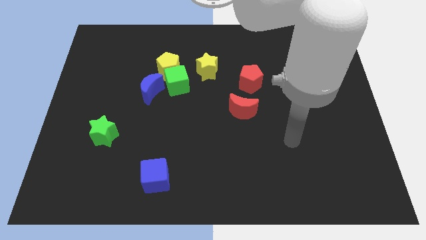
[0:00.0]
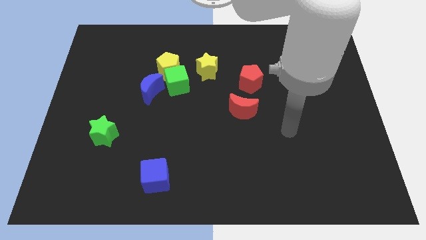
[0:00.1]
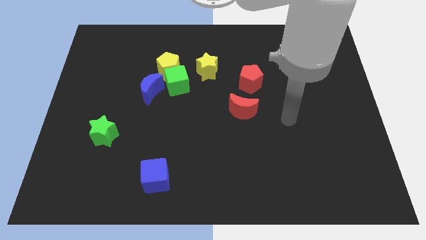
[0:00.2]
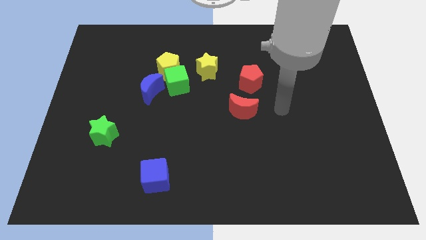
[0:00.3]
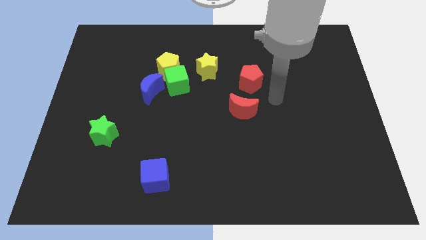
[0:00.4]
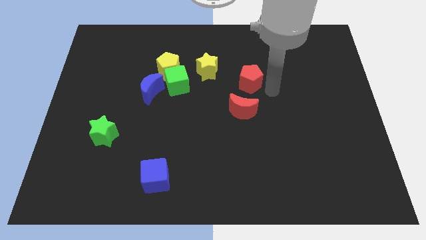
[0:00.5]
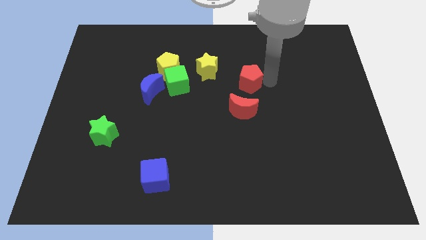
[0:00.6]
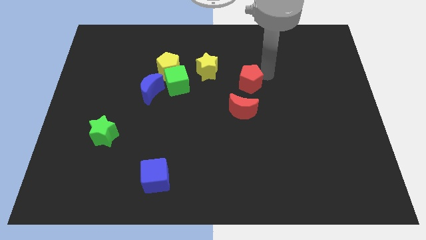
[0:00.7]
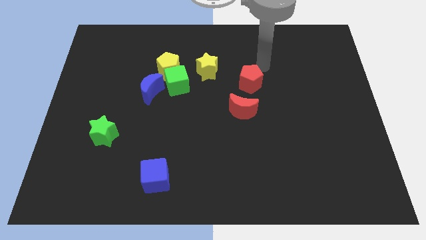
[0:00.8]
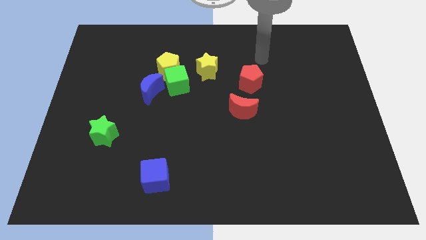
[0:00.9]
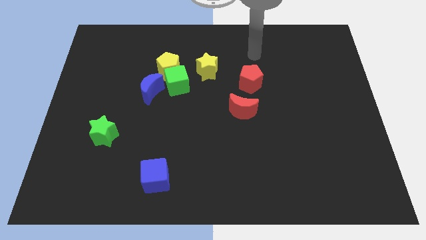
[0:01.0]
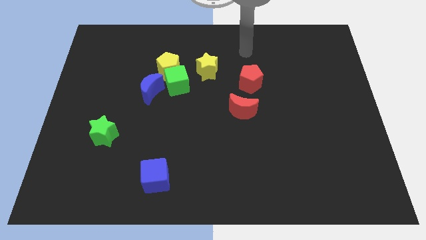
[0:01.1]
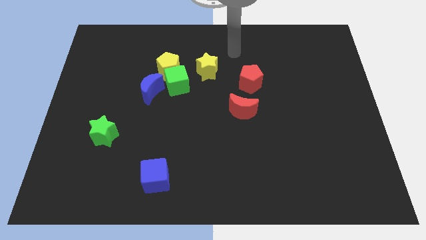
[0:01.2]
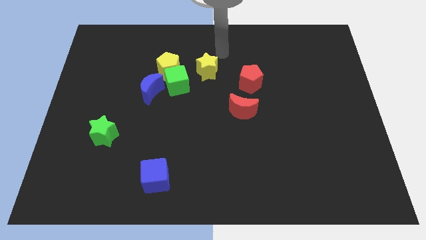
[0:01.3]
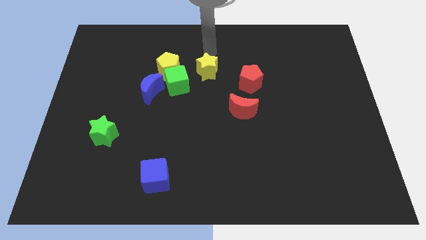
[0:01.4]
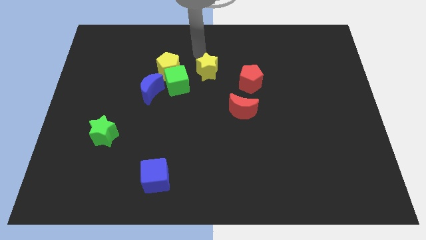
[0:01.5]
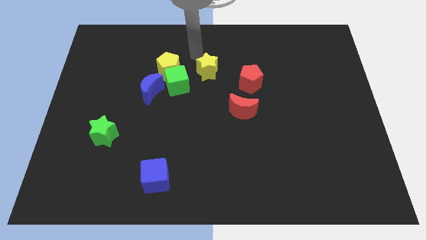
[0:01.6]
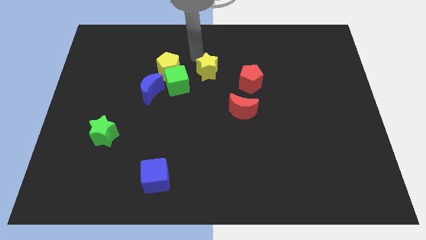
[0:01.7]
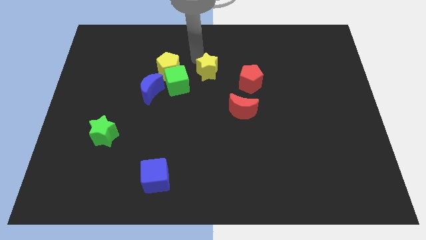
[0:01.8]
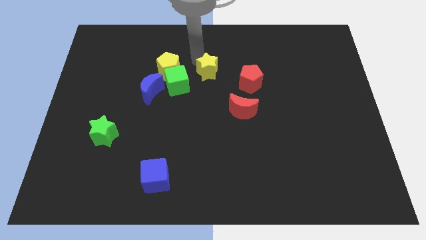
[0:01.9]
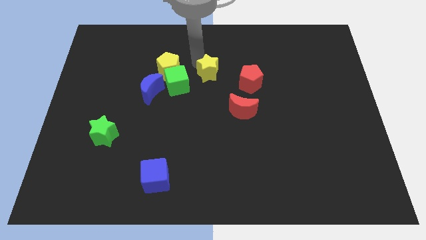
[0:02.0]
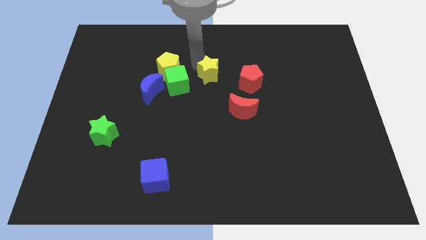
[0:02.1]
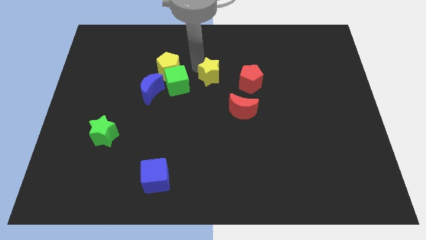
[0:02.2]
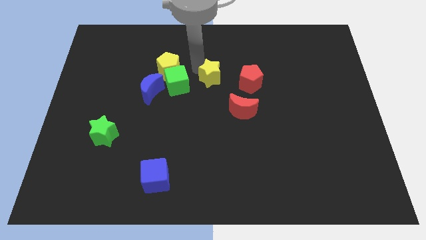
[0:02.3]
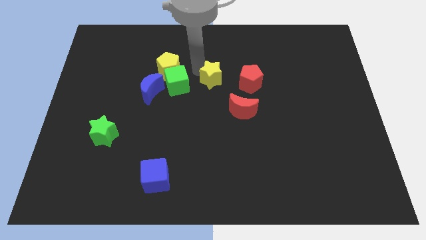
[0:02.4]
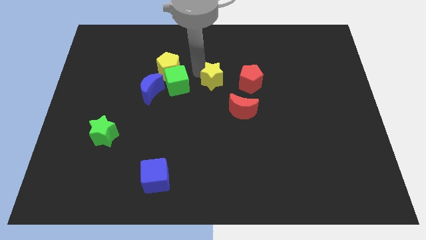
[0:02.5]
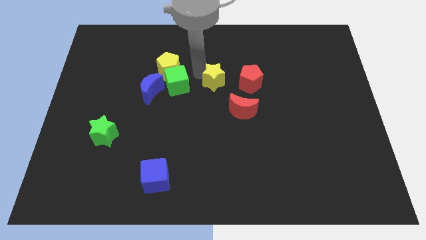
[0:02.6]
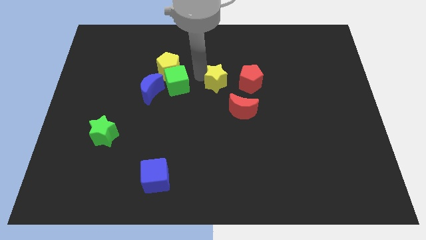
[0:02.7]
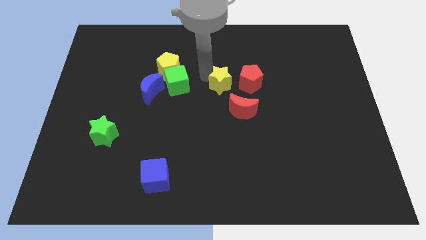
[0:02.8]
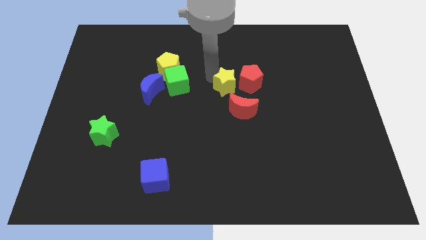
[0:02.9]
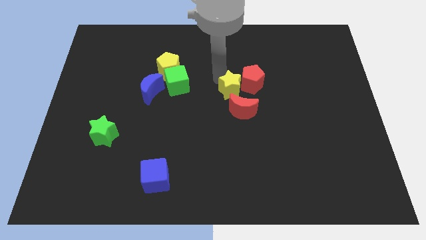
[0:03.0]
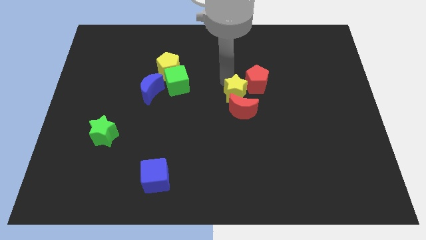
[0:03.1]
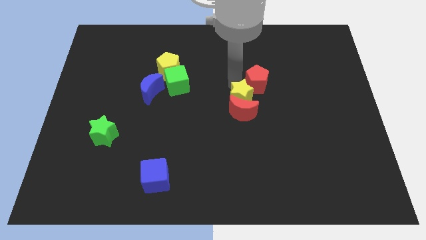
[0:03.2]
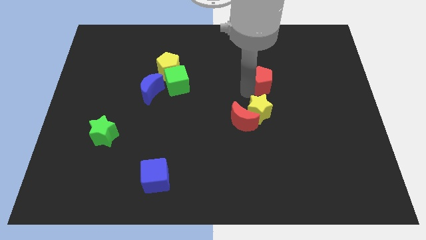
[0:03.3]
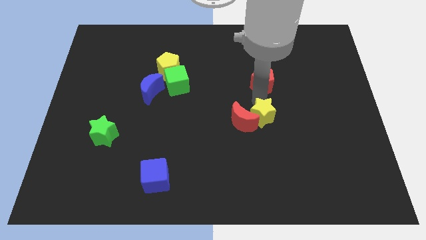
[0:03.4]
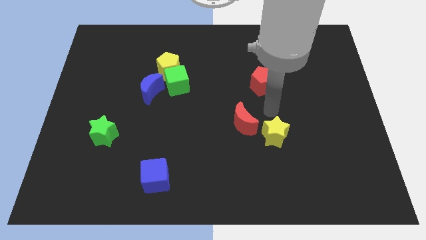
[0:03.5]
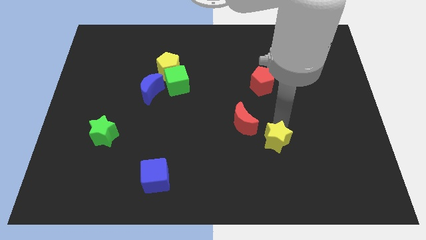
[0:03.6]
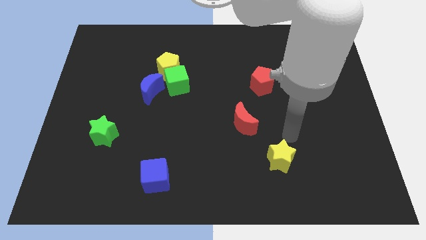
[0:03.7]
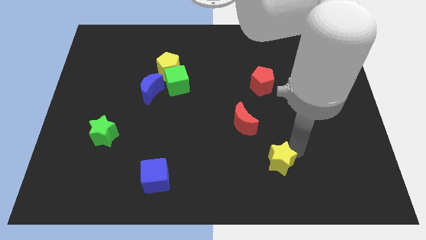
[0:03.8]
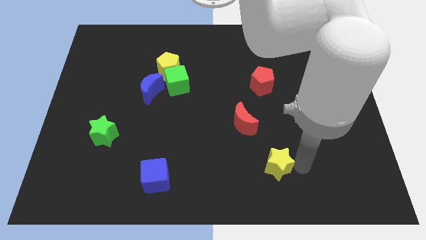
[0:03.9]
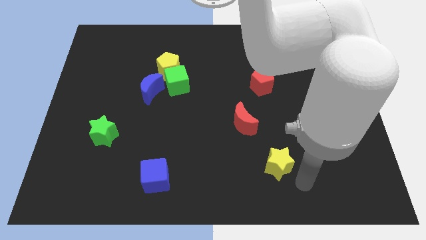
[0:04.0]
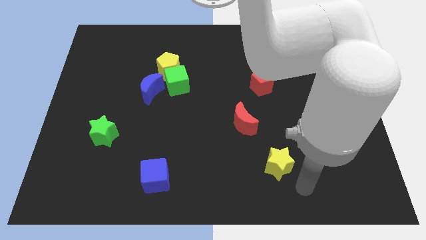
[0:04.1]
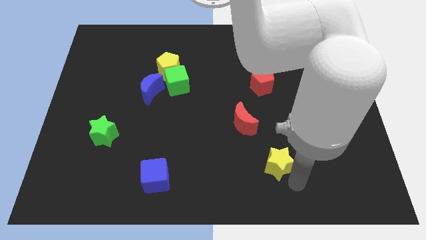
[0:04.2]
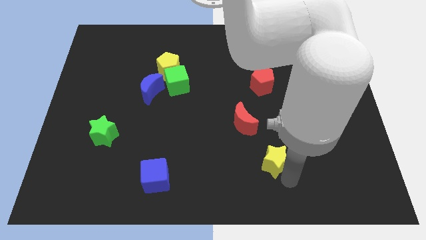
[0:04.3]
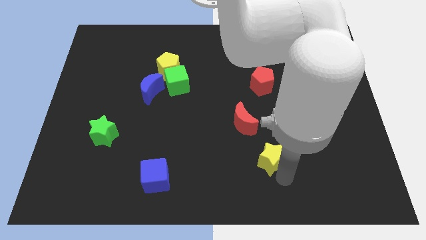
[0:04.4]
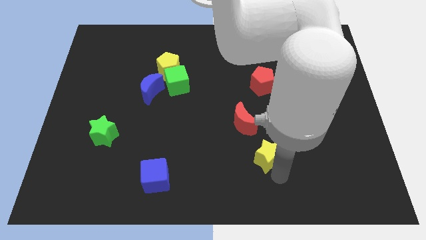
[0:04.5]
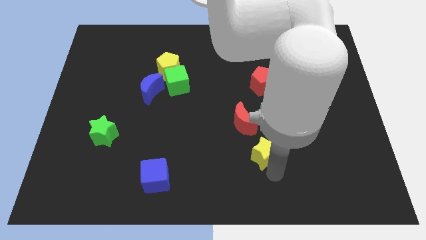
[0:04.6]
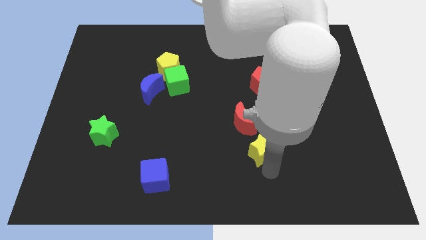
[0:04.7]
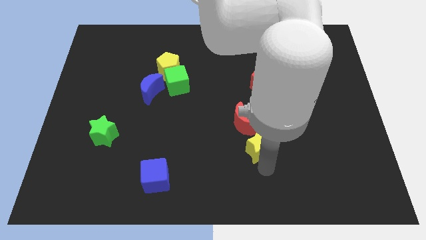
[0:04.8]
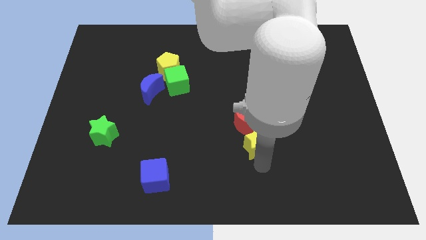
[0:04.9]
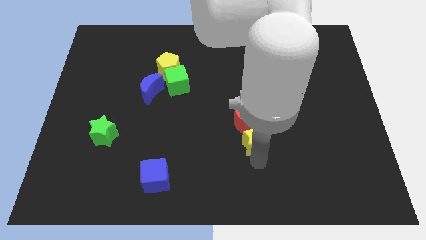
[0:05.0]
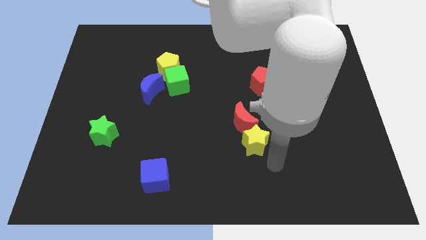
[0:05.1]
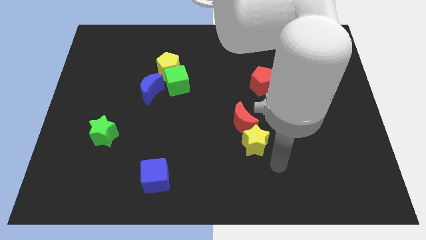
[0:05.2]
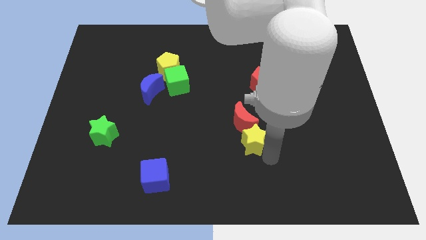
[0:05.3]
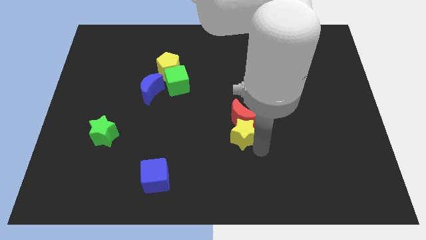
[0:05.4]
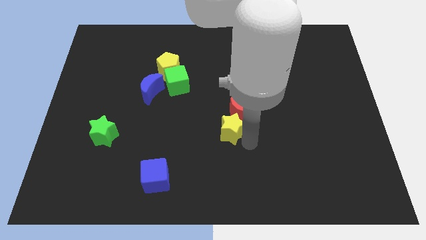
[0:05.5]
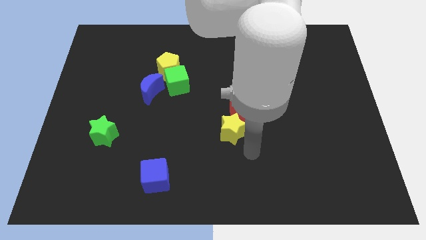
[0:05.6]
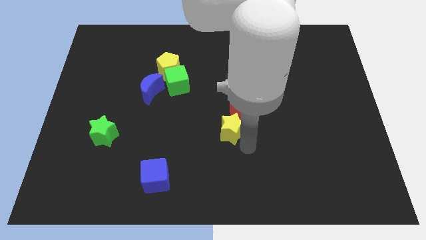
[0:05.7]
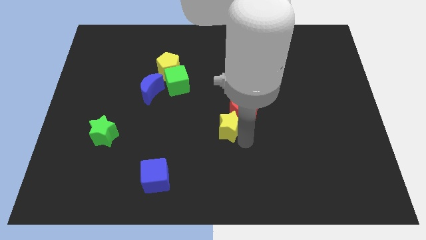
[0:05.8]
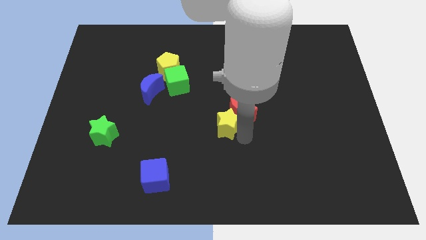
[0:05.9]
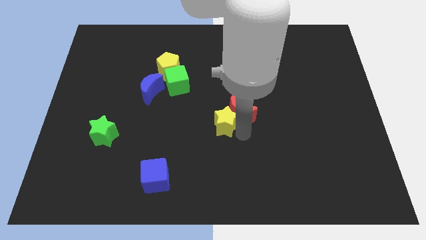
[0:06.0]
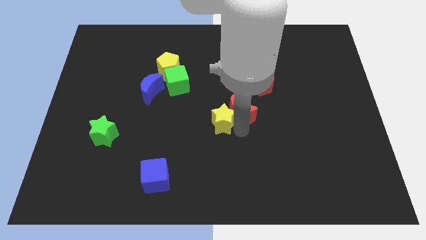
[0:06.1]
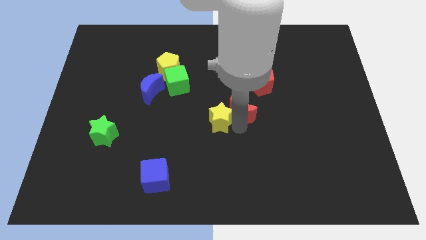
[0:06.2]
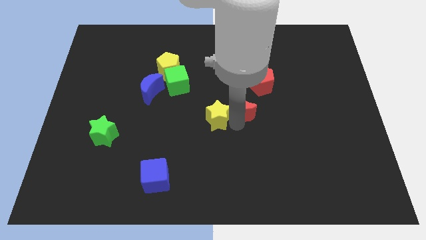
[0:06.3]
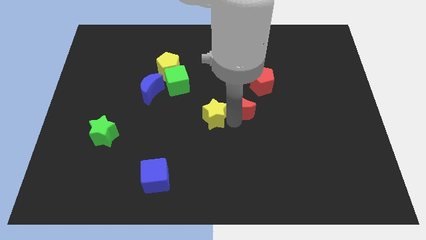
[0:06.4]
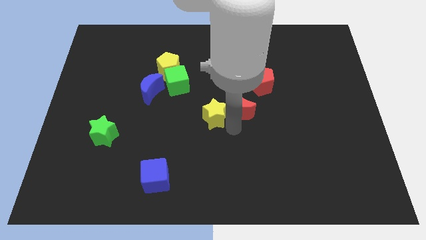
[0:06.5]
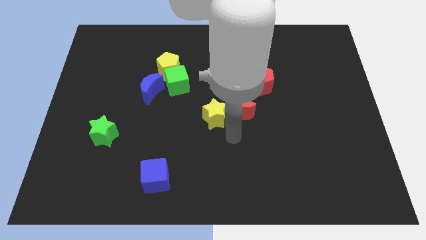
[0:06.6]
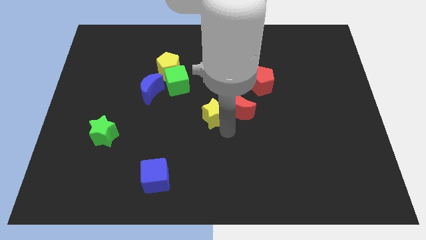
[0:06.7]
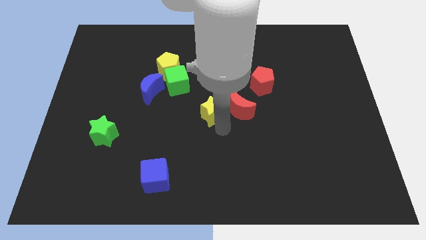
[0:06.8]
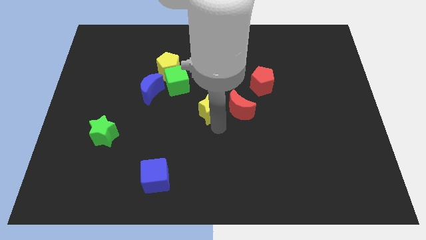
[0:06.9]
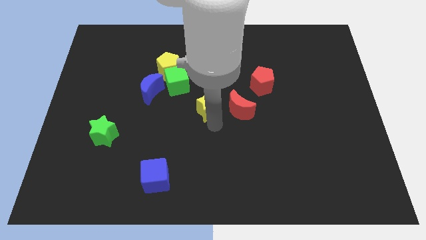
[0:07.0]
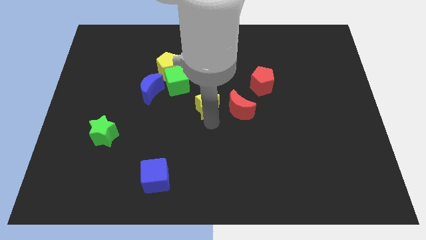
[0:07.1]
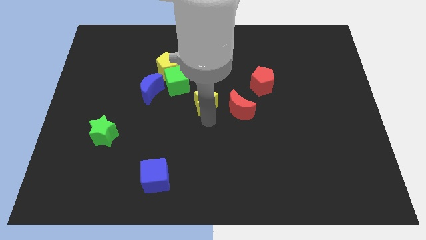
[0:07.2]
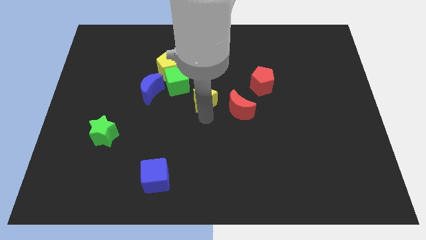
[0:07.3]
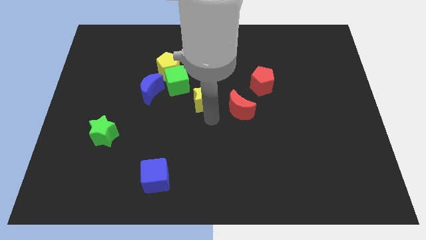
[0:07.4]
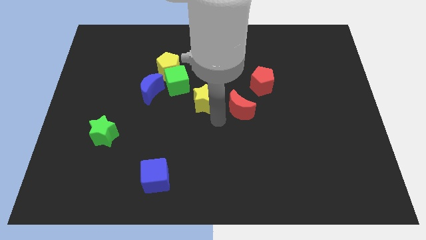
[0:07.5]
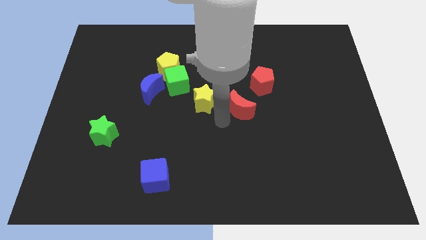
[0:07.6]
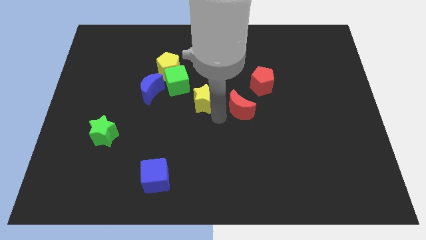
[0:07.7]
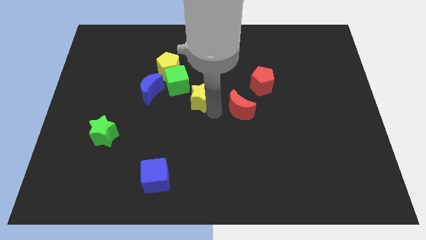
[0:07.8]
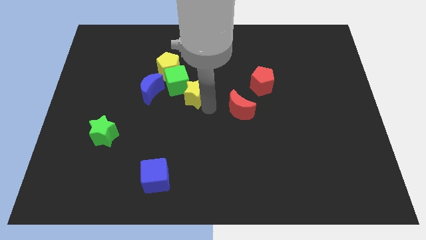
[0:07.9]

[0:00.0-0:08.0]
slide the yellow star to the bottom right side of the yellow pentagon
